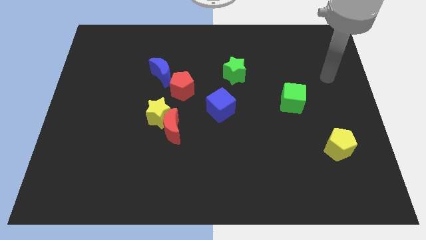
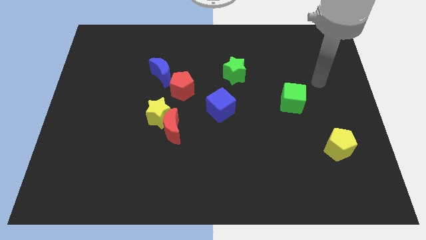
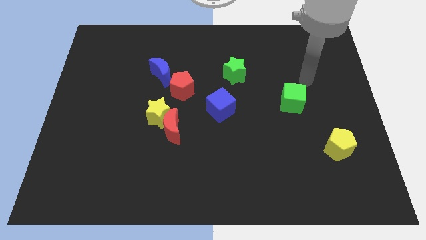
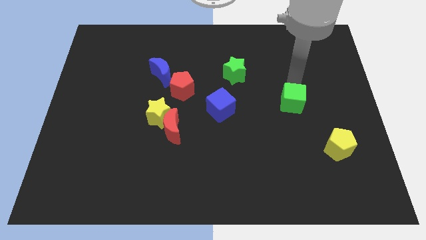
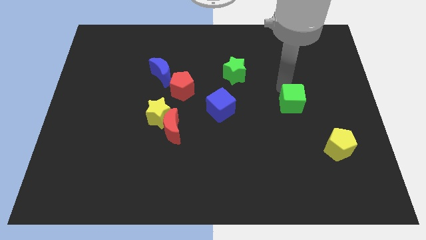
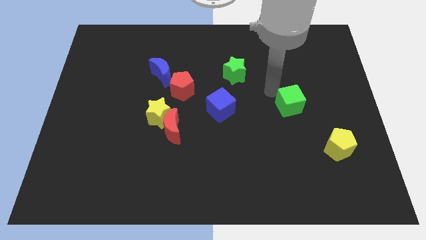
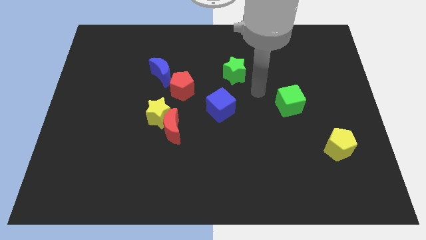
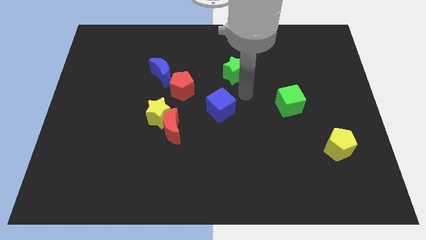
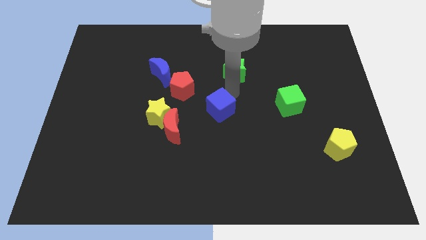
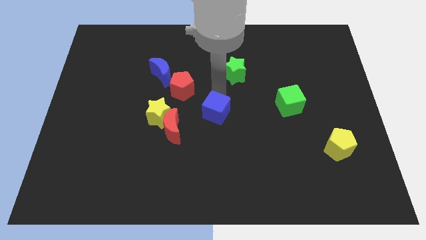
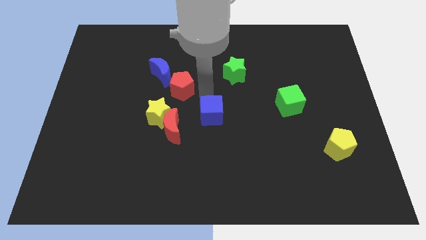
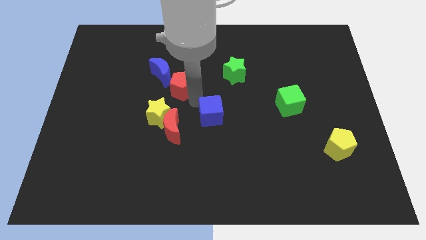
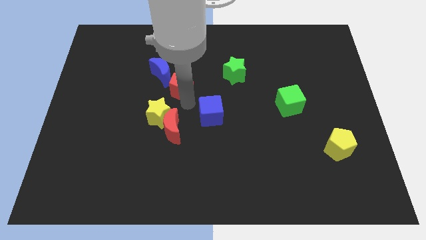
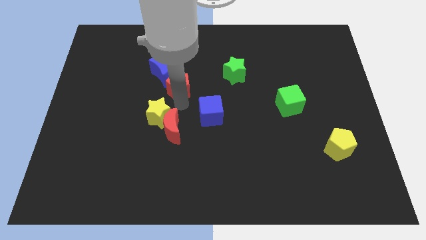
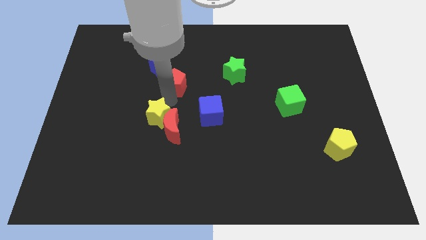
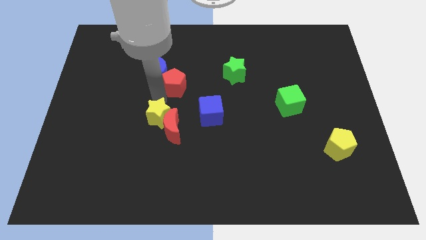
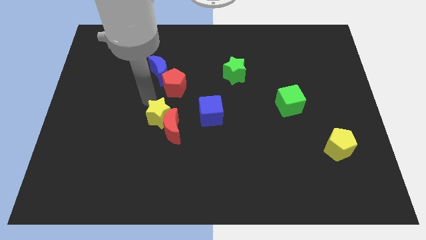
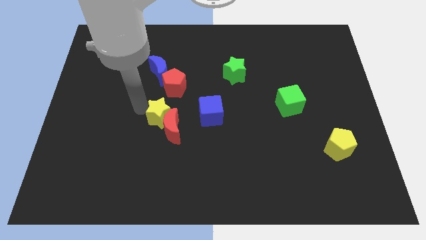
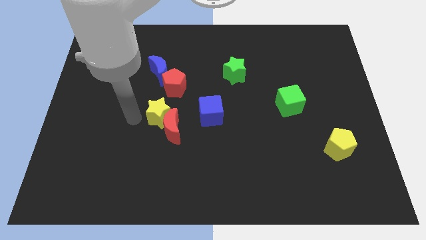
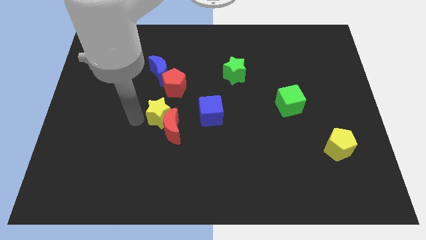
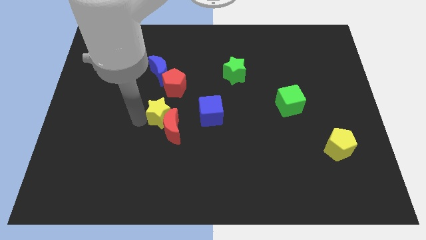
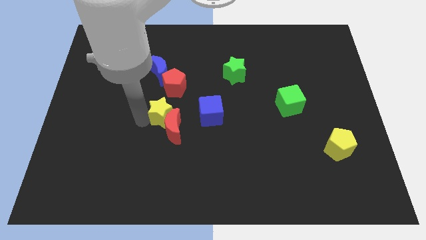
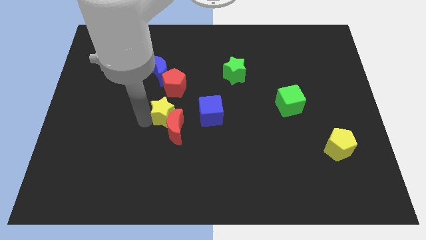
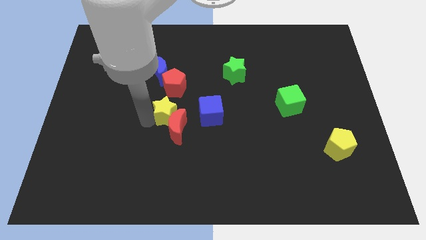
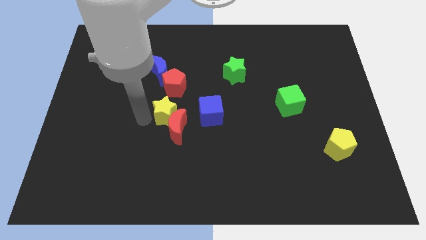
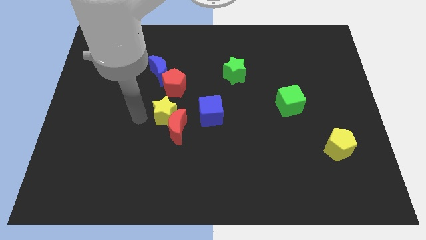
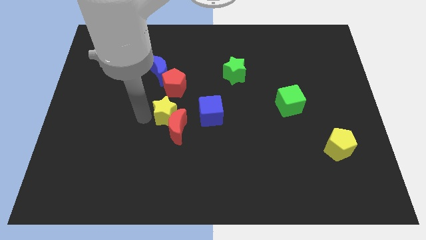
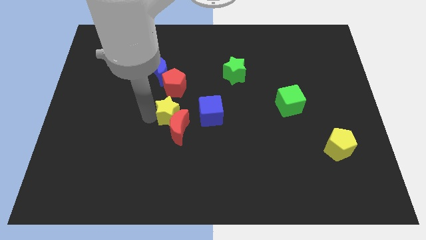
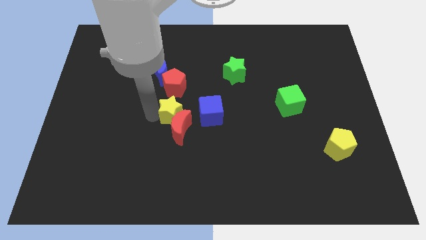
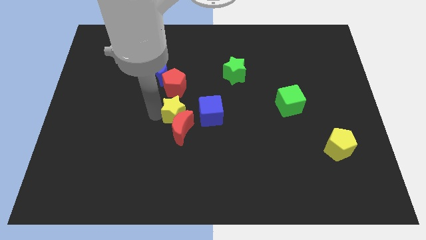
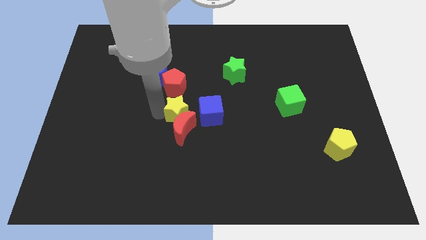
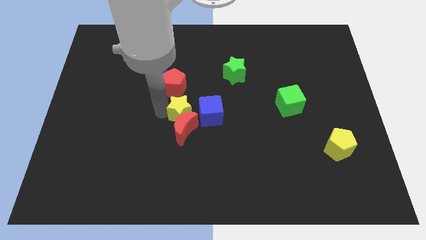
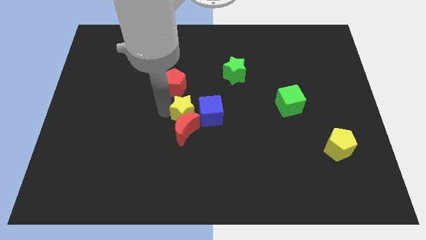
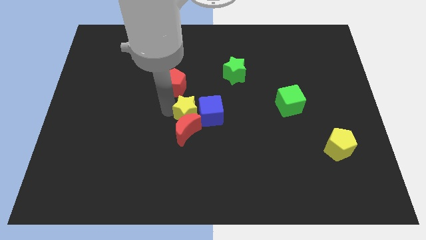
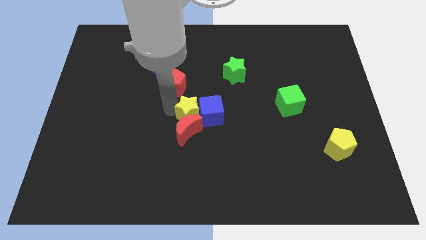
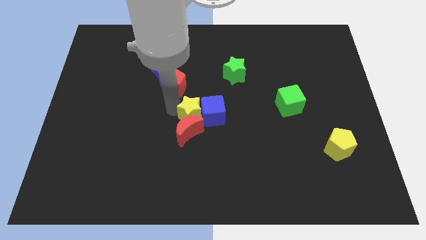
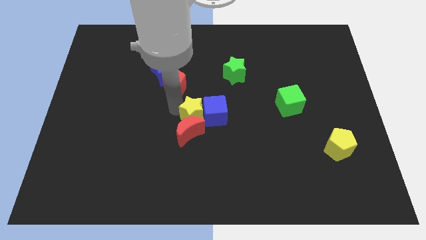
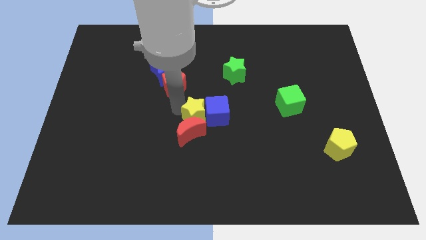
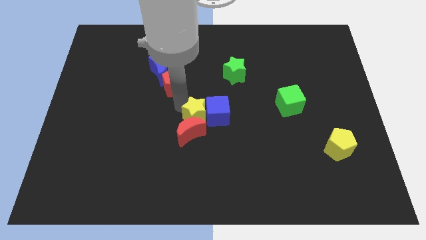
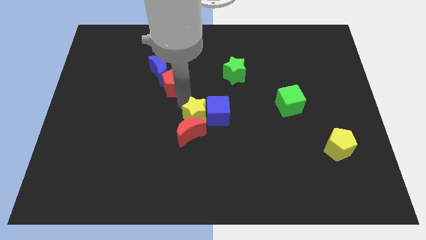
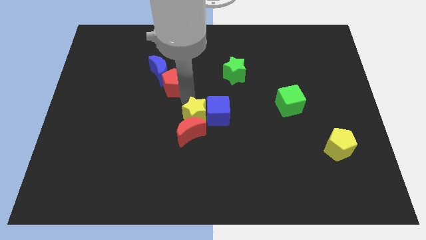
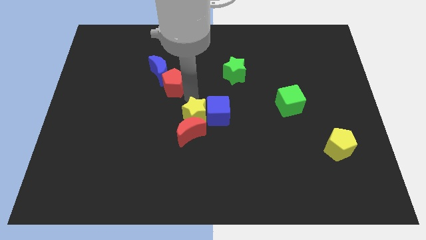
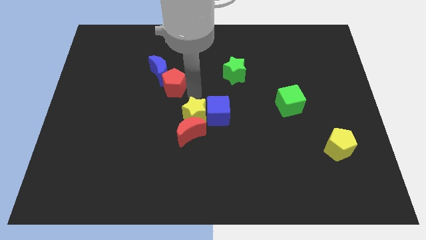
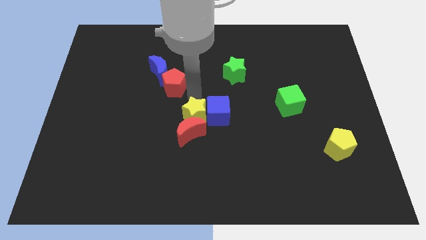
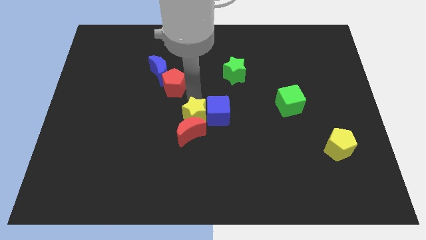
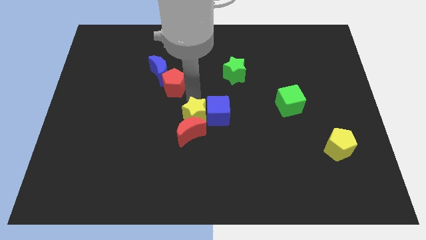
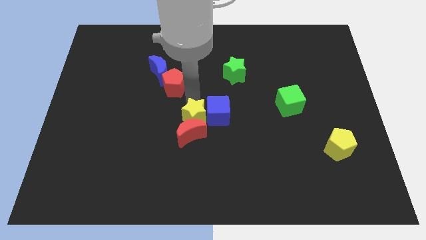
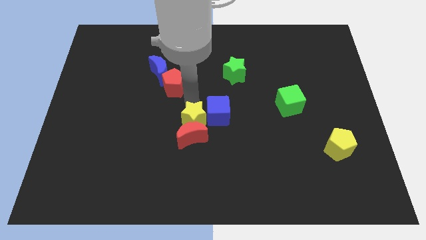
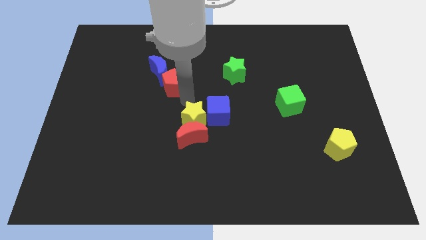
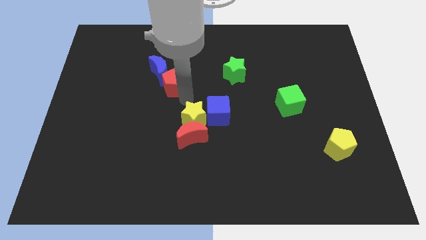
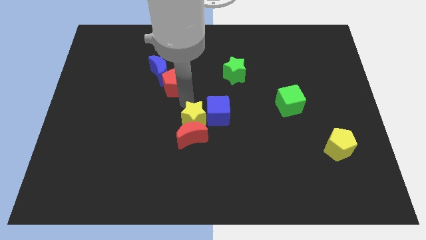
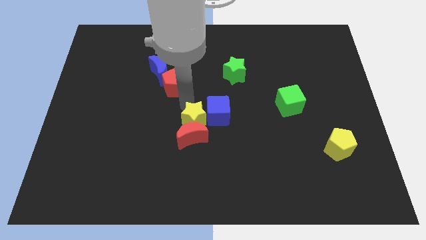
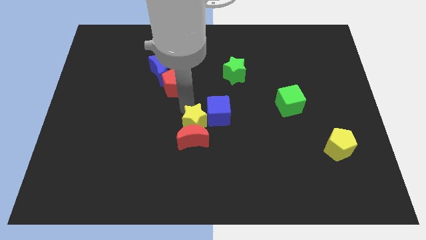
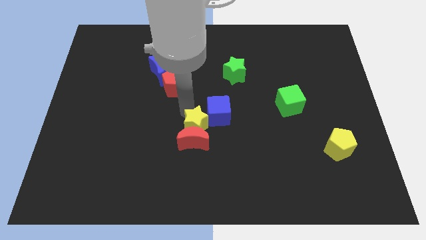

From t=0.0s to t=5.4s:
move the yellow star a little bit downwards and then right

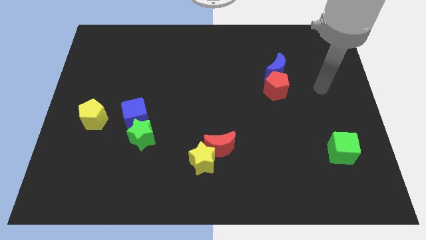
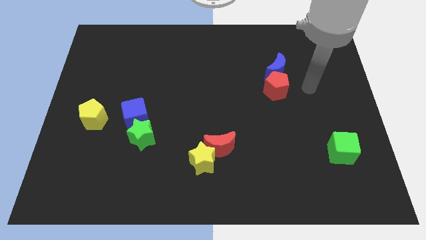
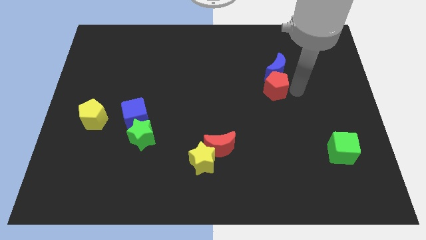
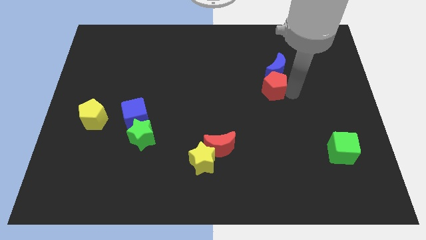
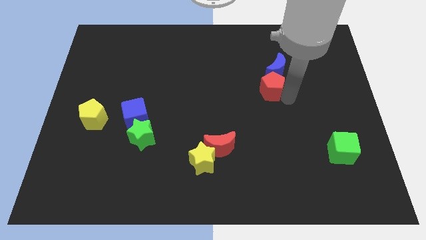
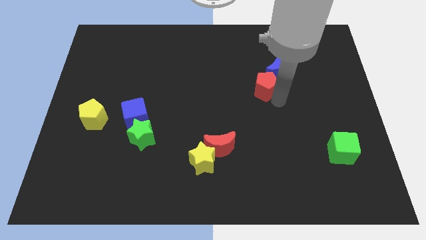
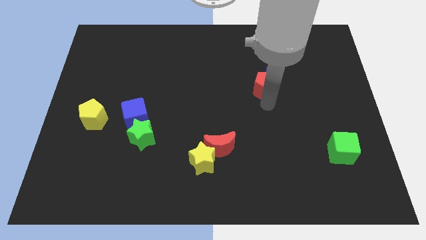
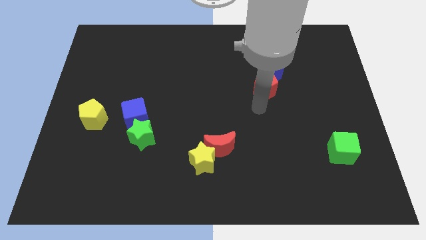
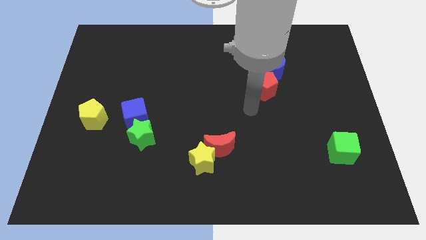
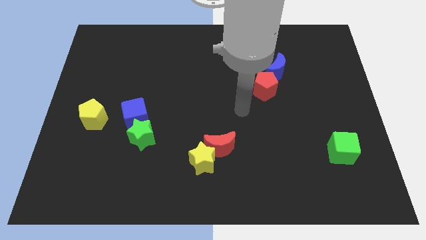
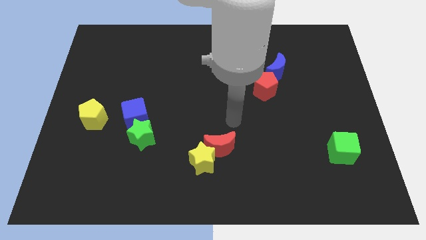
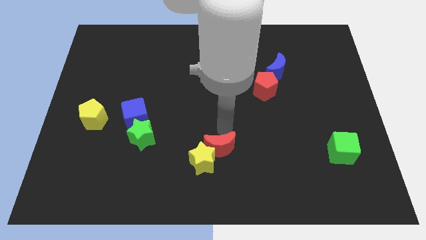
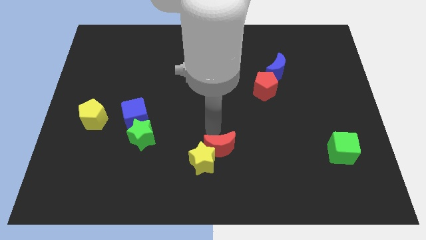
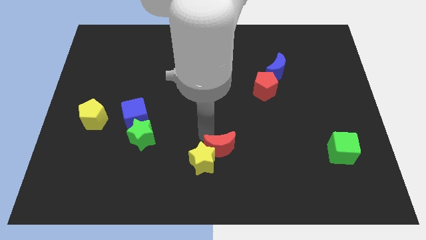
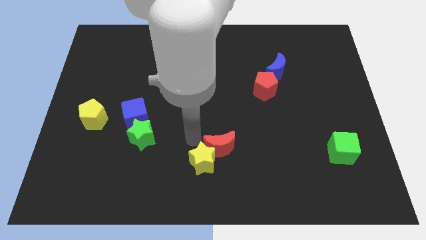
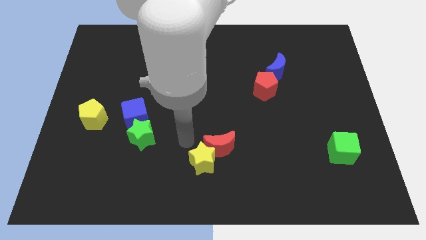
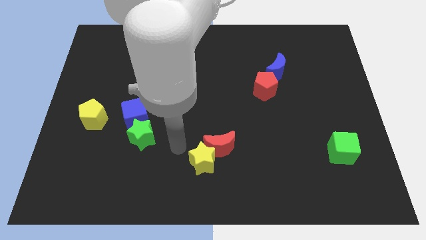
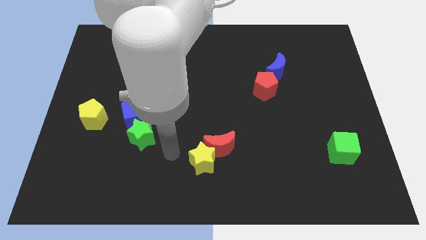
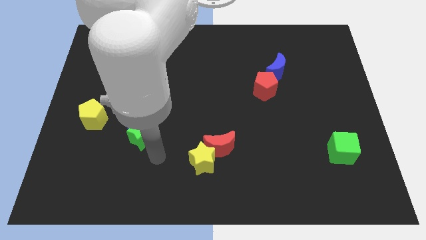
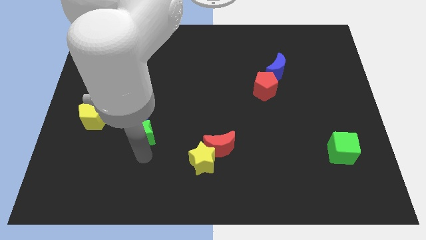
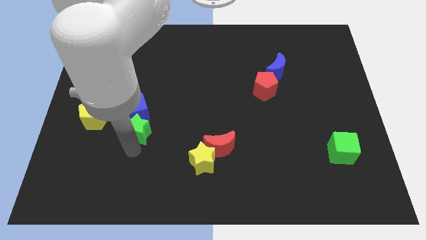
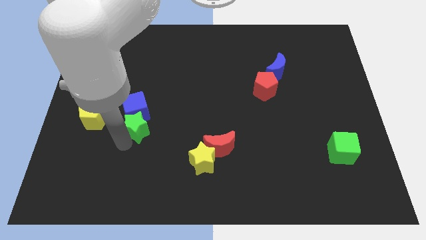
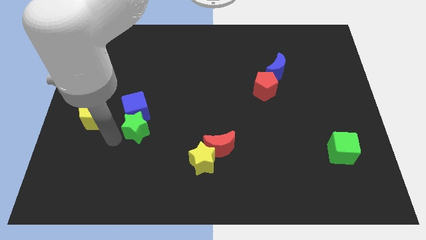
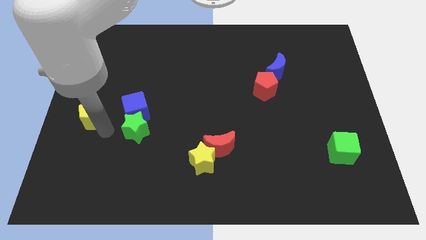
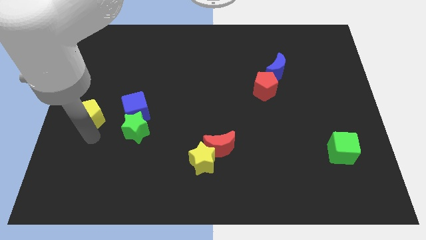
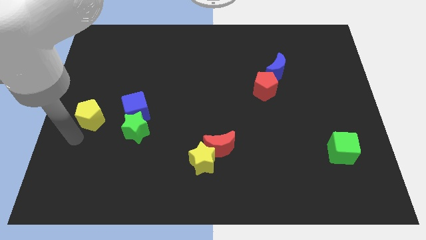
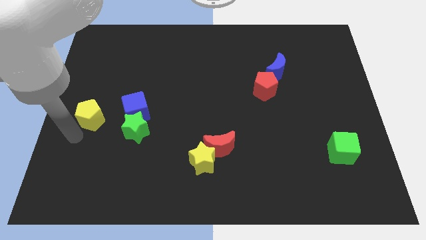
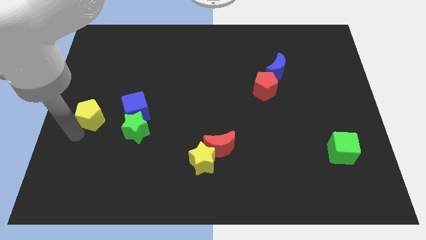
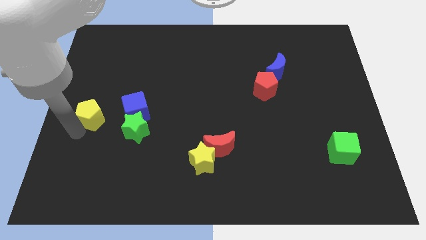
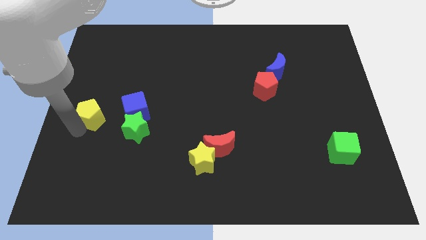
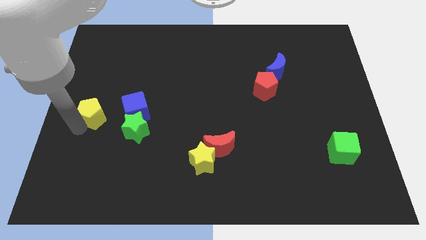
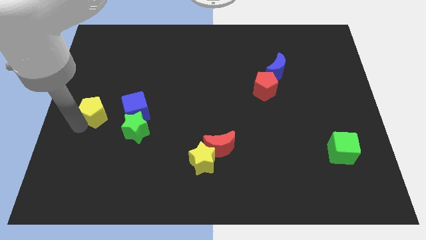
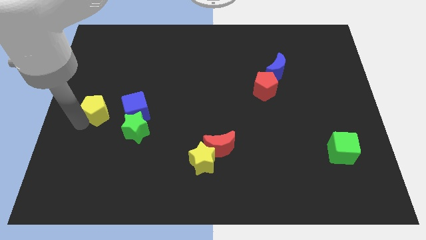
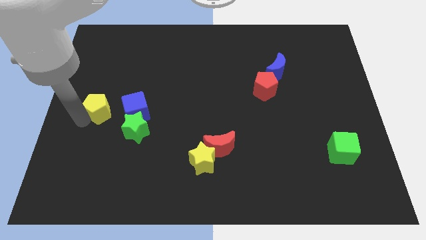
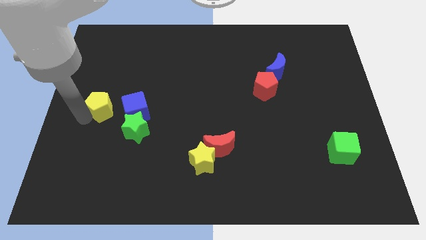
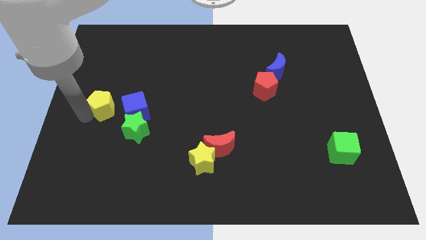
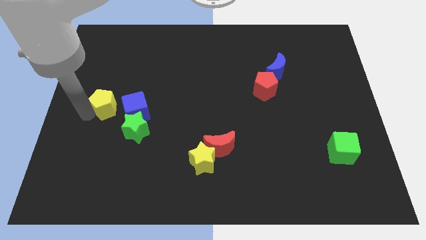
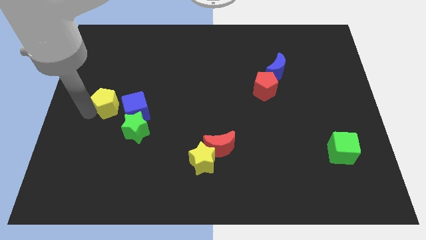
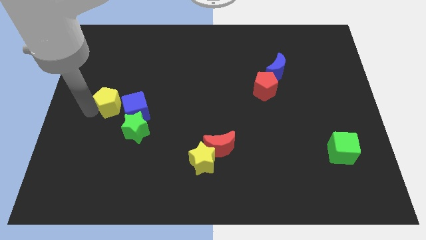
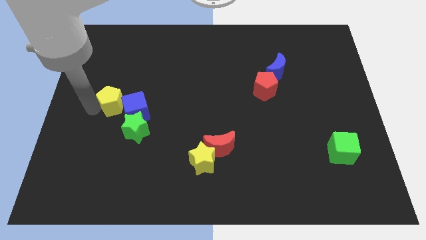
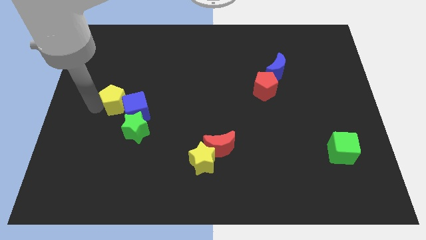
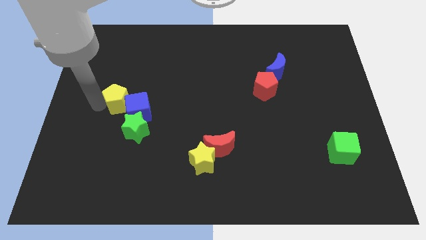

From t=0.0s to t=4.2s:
slide the yellow pentagon slightly upwards and right
